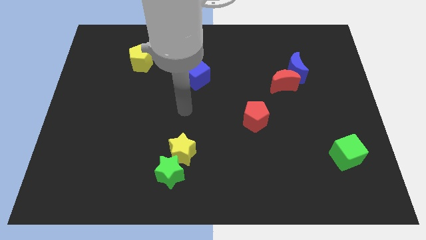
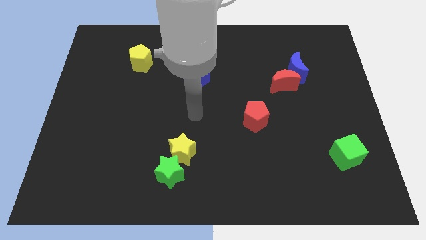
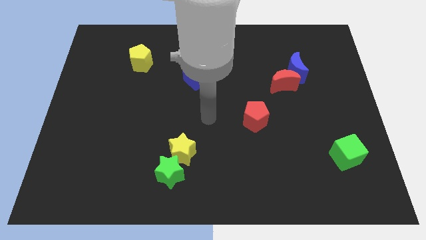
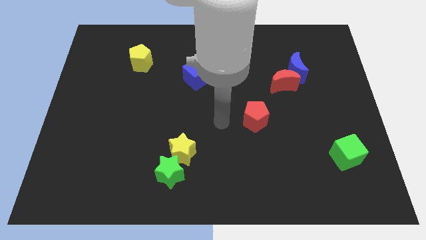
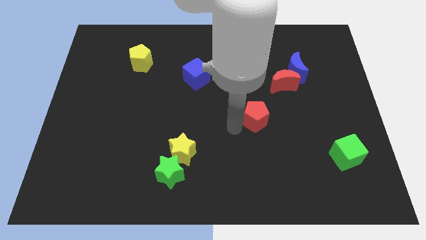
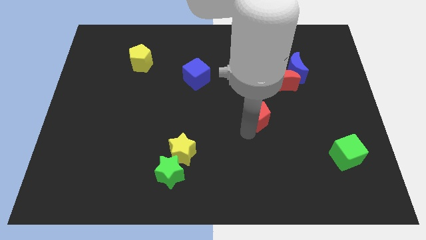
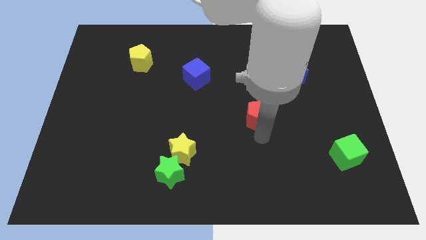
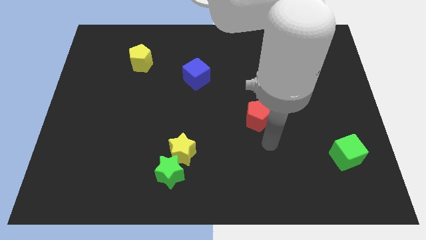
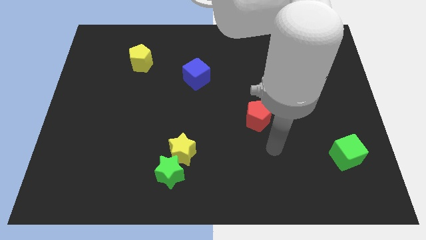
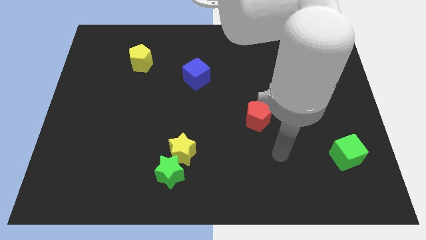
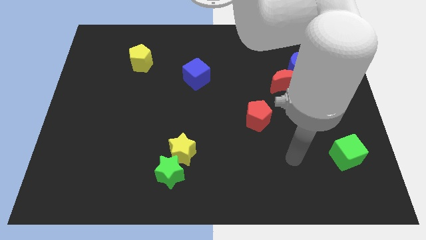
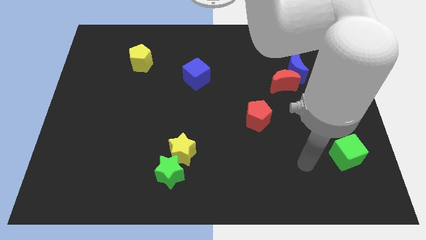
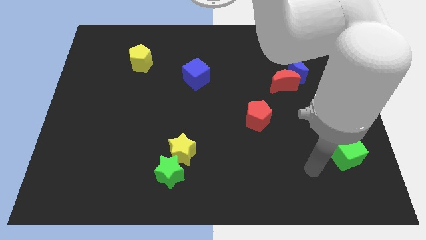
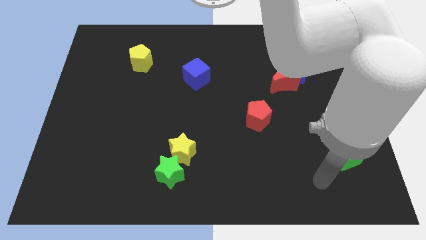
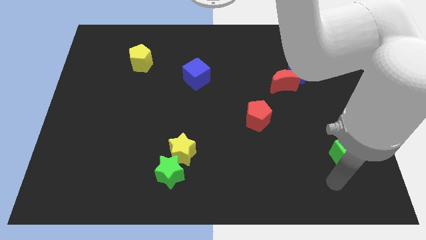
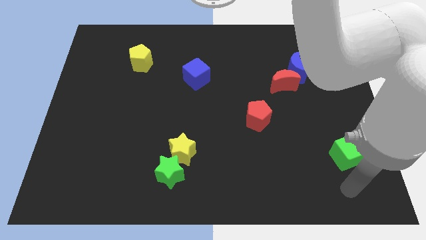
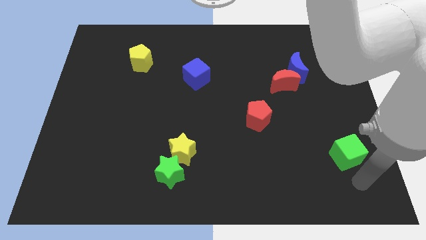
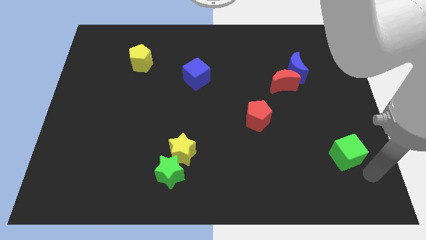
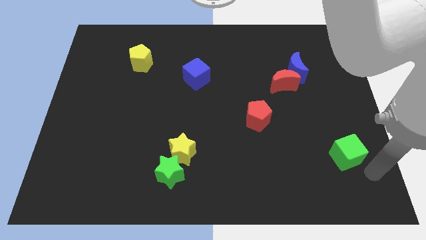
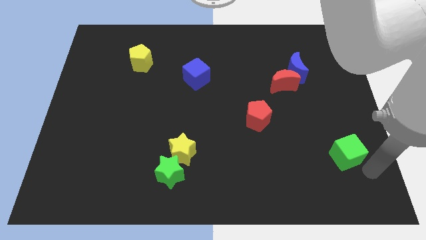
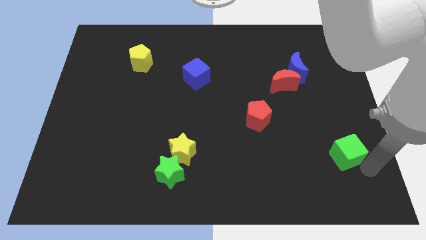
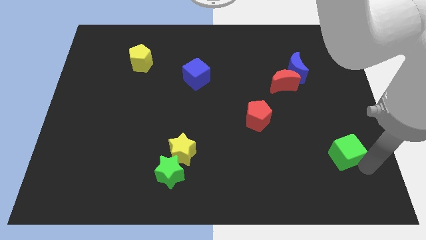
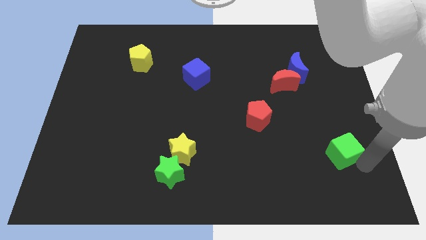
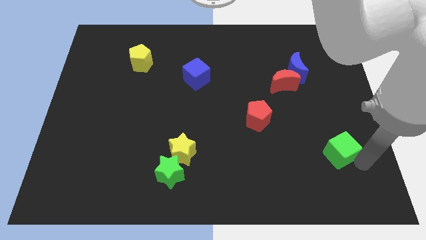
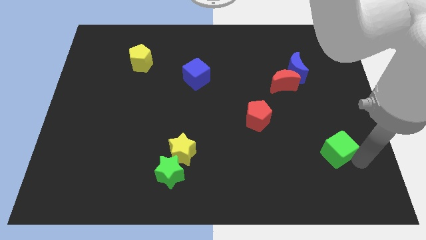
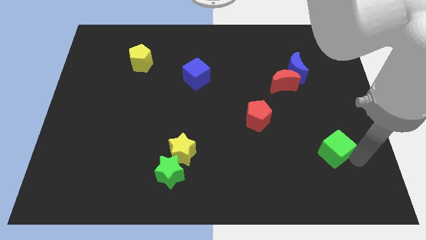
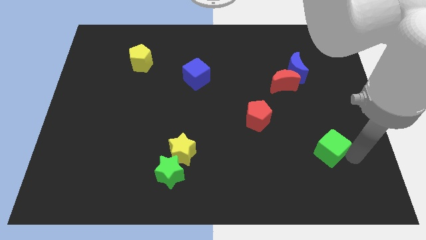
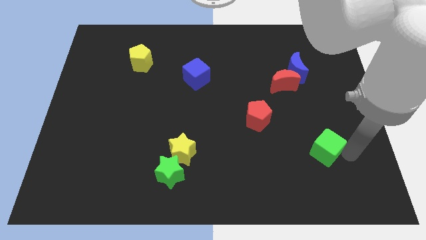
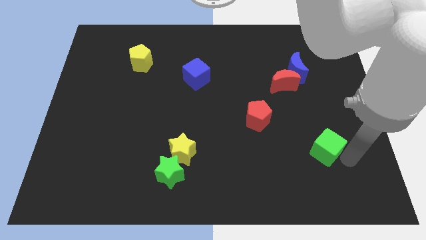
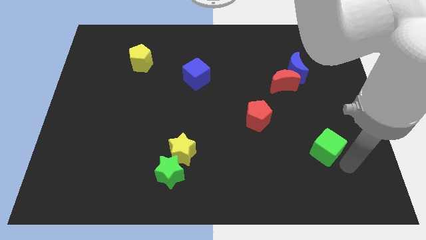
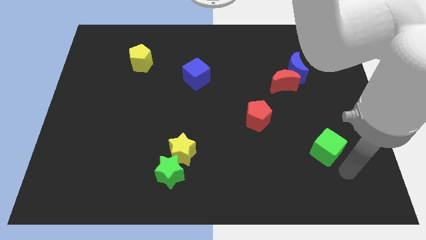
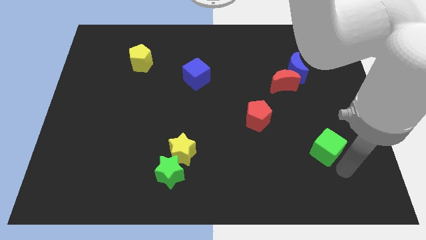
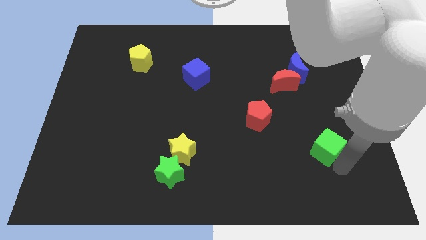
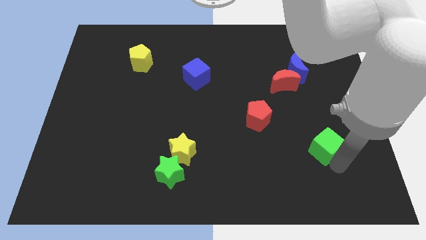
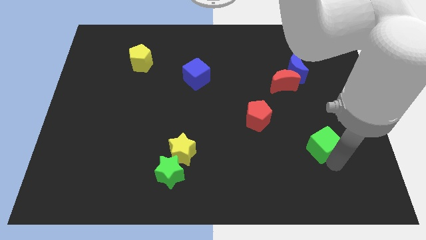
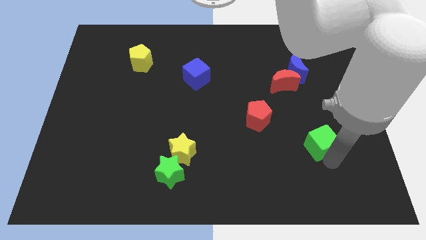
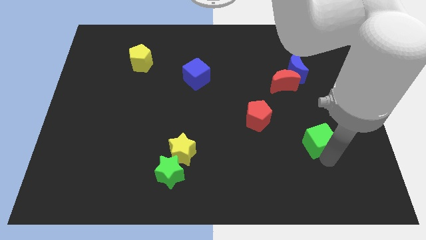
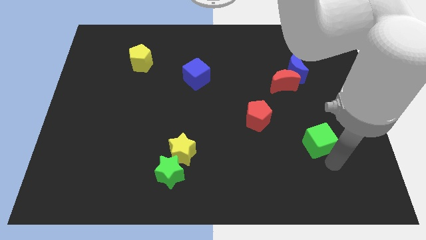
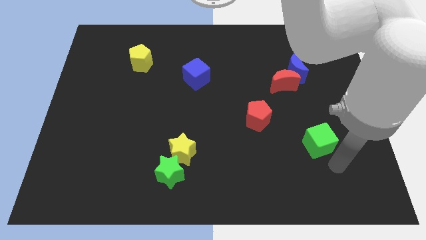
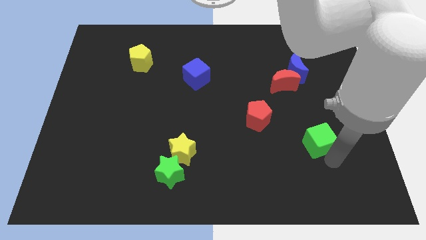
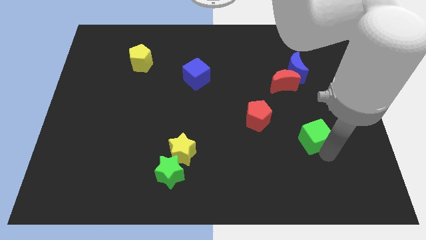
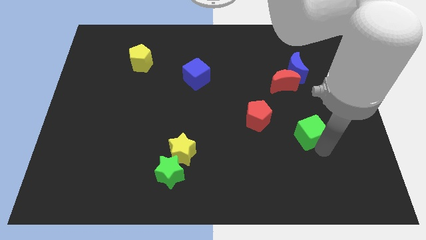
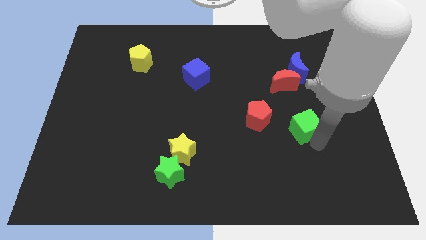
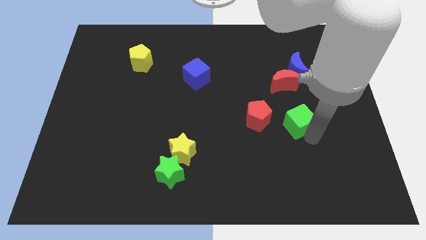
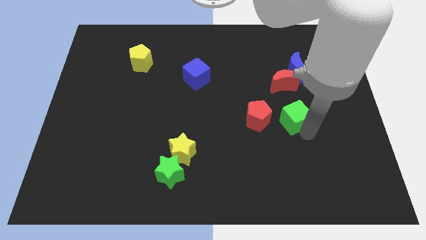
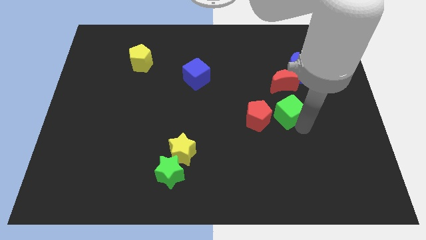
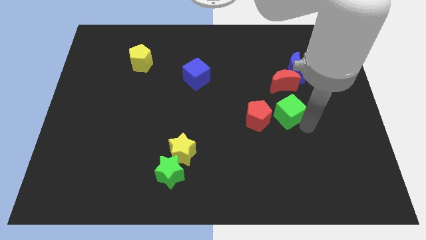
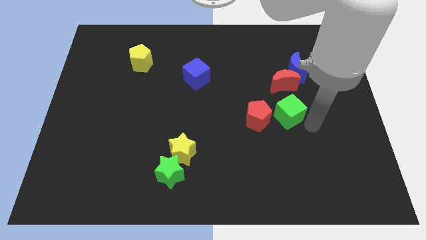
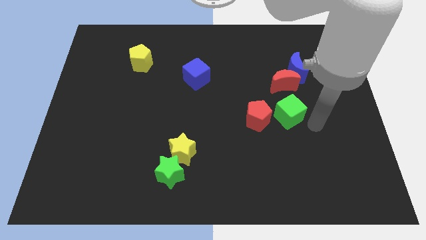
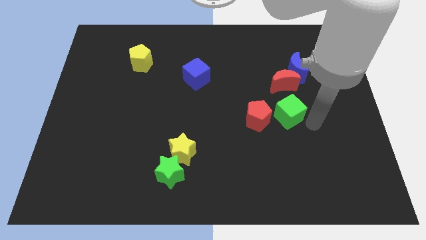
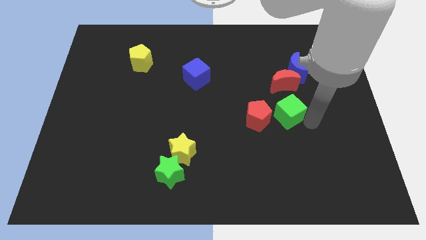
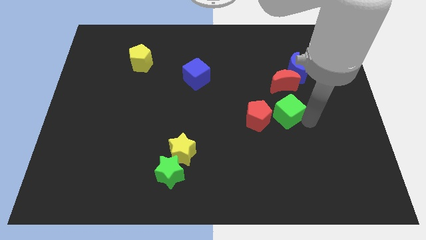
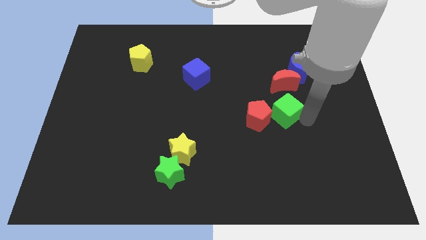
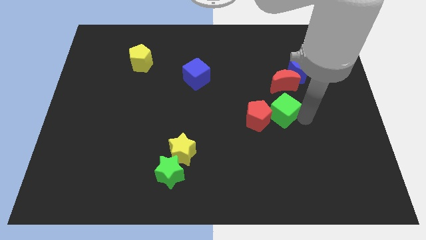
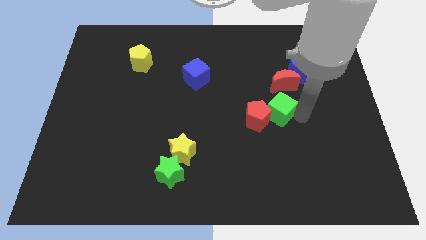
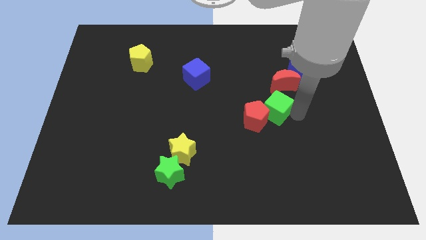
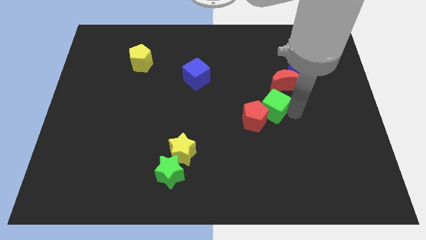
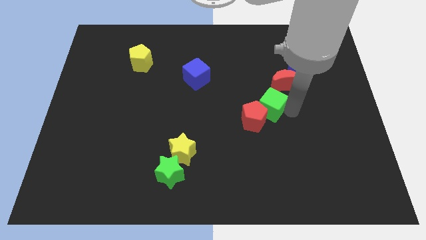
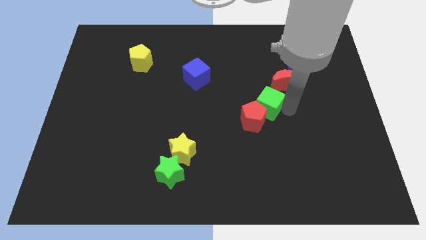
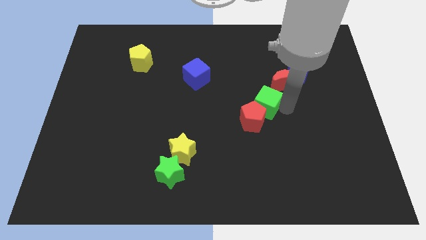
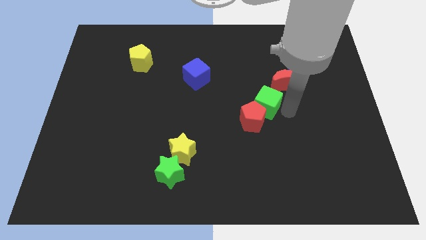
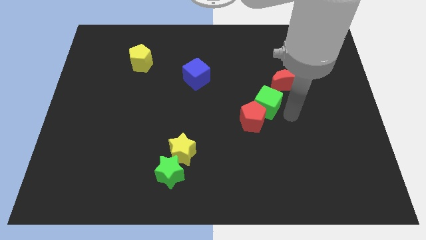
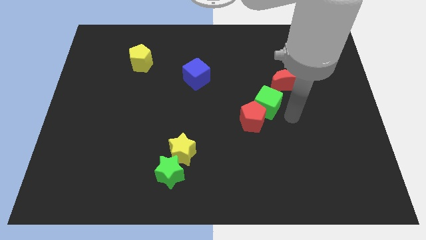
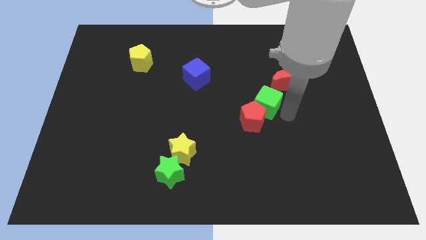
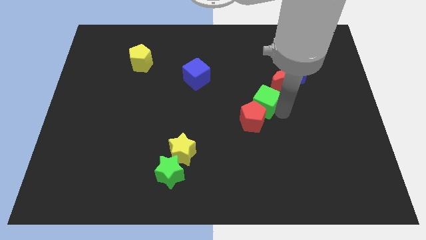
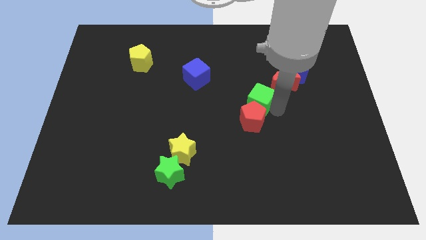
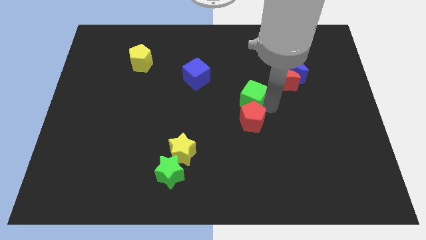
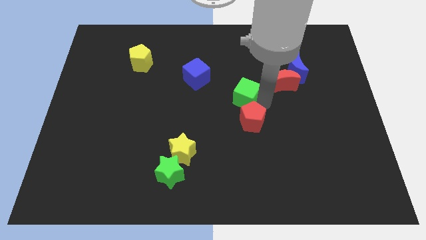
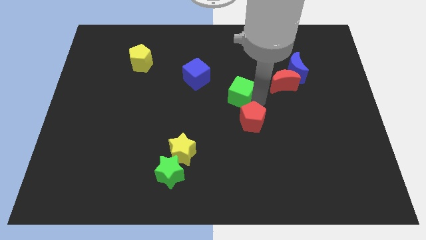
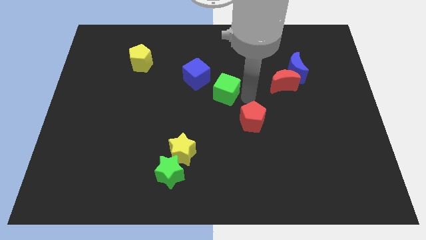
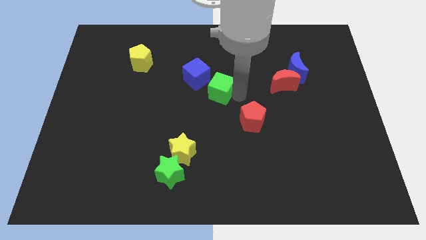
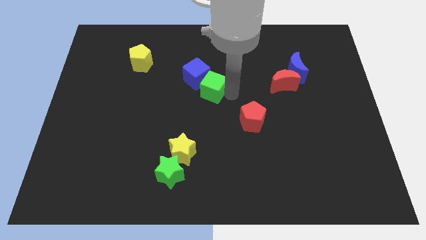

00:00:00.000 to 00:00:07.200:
put the green cube next to the blue cube

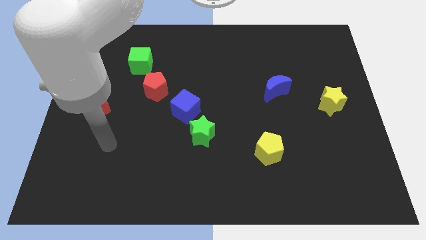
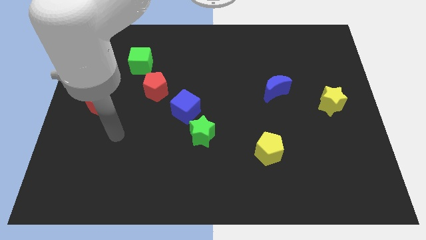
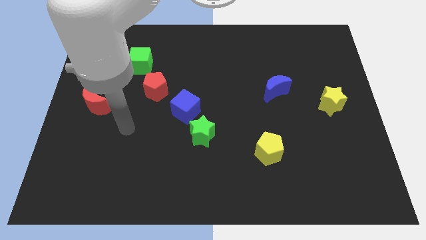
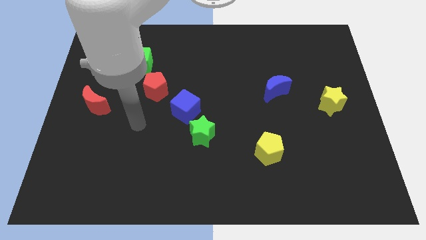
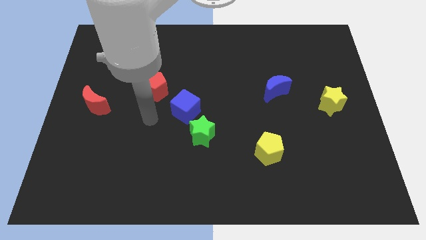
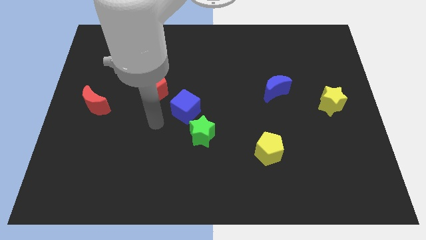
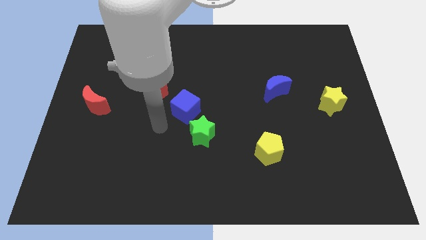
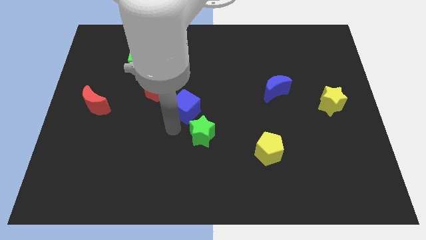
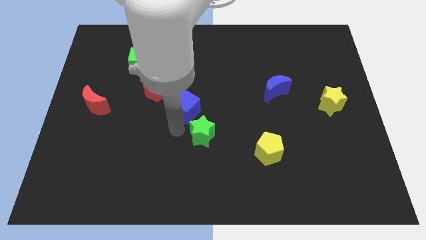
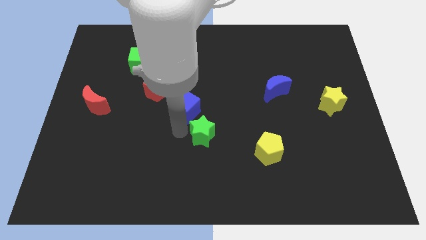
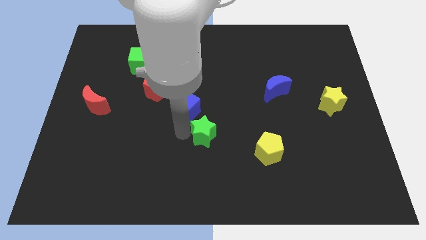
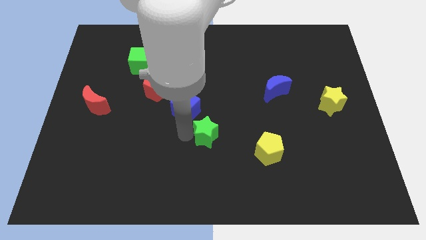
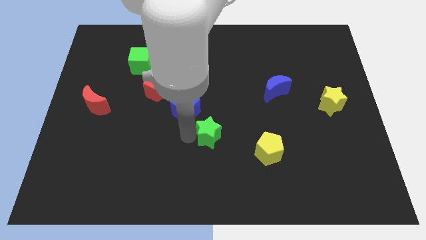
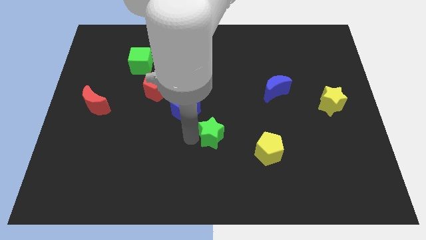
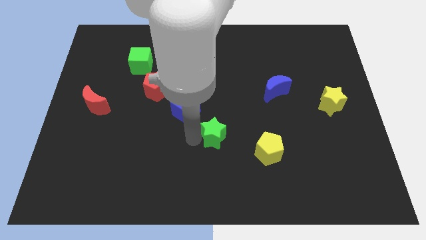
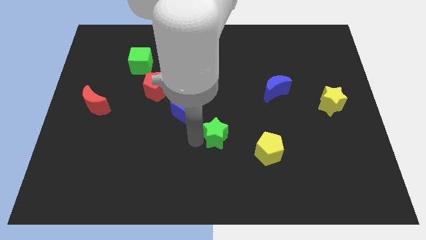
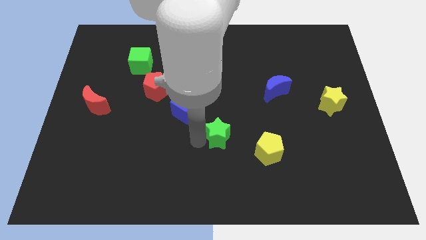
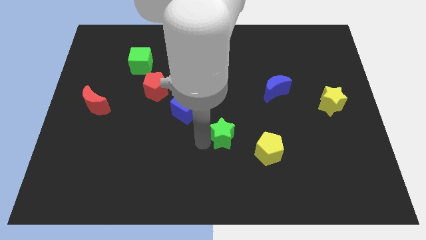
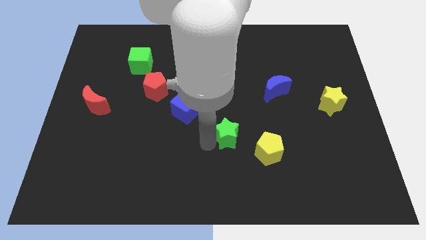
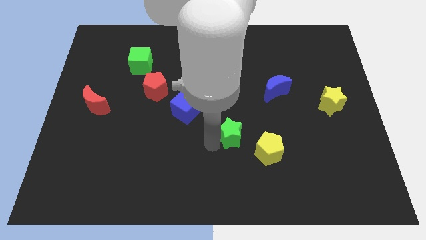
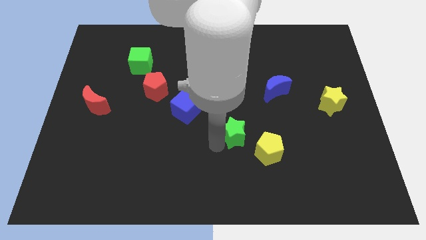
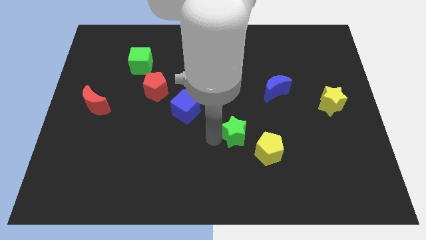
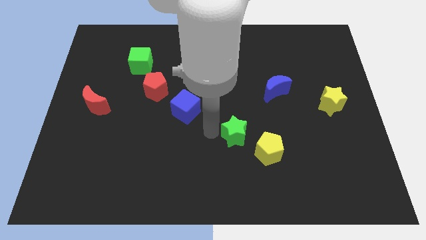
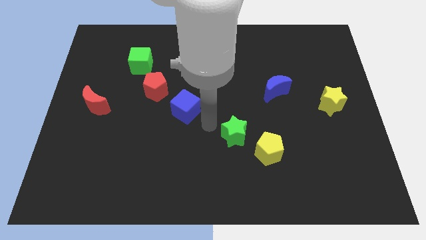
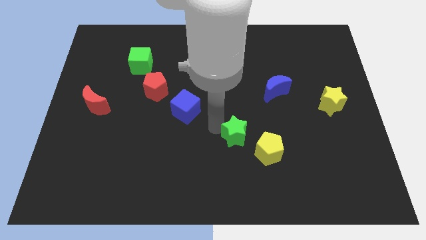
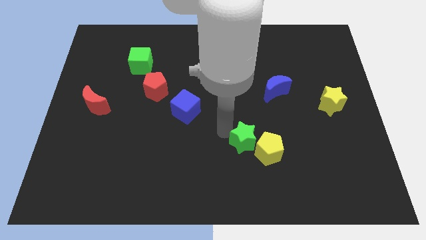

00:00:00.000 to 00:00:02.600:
put the green star next to the yellow pentagon
